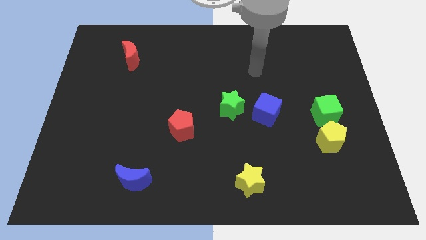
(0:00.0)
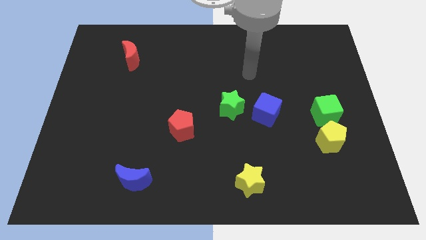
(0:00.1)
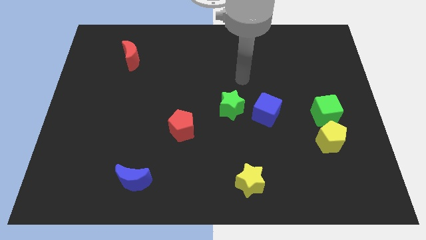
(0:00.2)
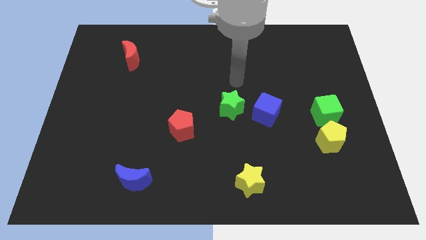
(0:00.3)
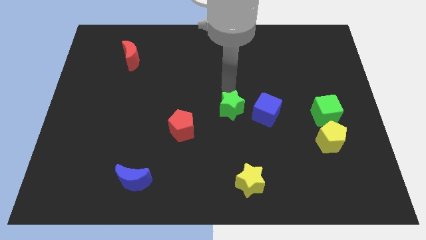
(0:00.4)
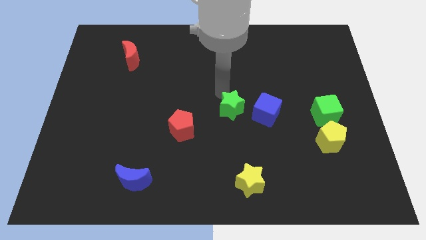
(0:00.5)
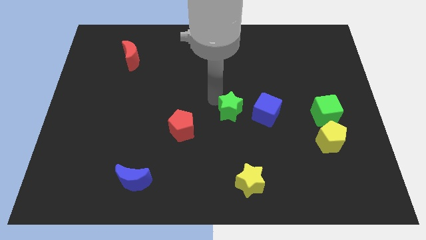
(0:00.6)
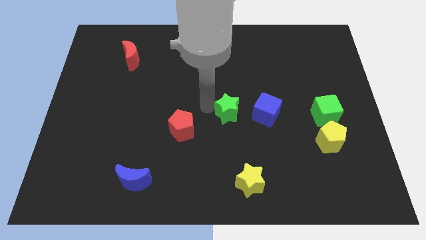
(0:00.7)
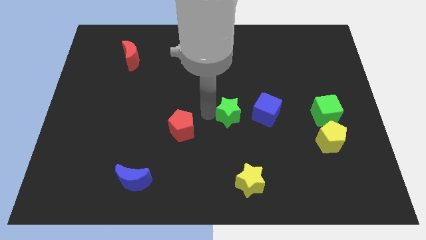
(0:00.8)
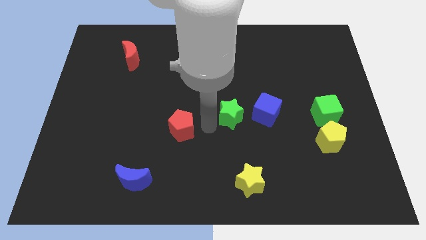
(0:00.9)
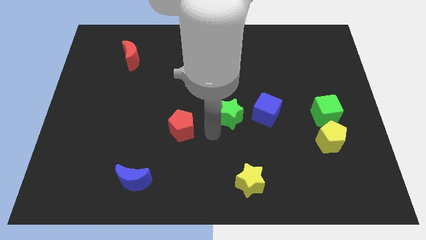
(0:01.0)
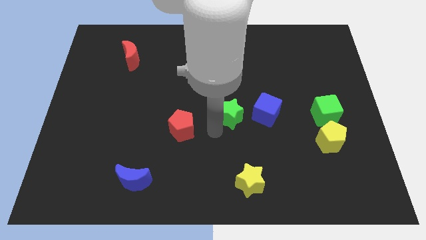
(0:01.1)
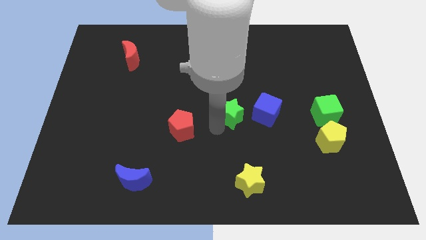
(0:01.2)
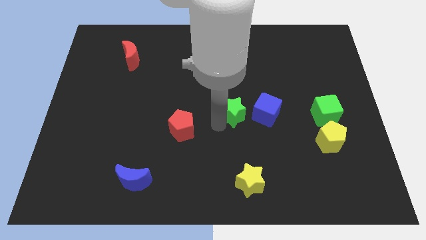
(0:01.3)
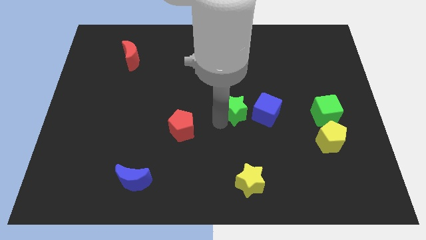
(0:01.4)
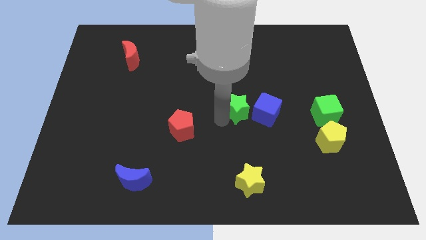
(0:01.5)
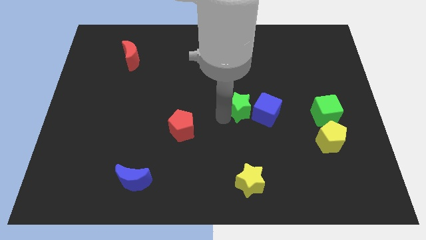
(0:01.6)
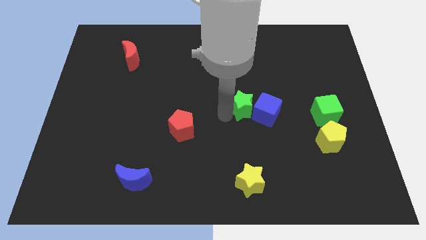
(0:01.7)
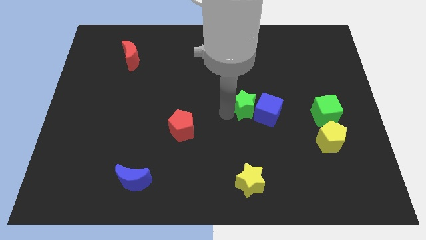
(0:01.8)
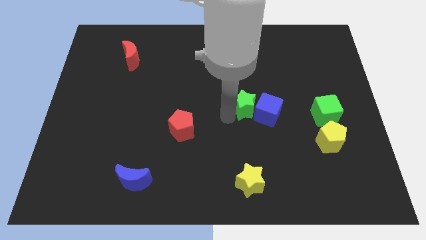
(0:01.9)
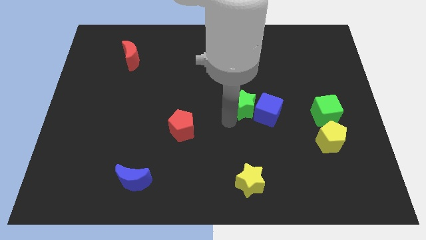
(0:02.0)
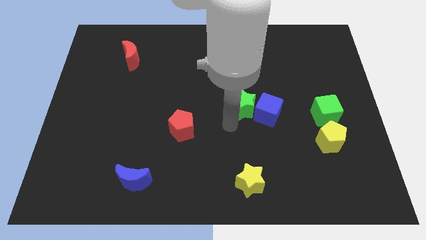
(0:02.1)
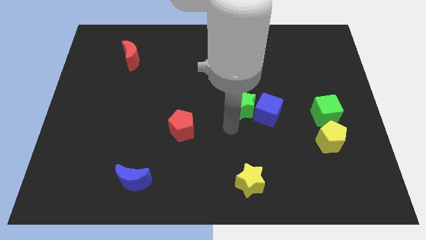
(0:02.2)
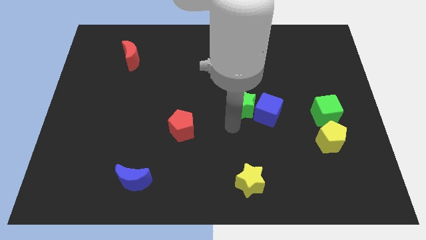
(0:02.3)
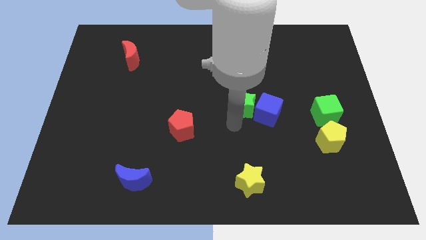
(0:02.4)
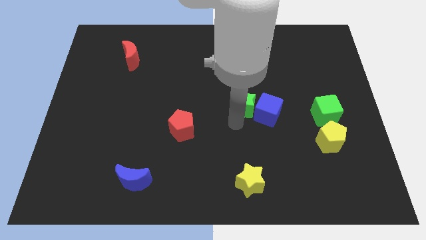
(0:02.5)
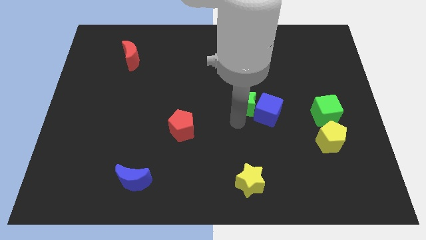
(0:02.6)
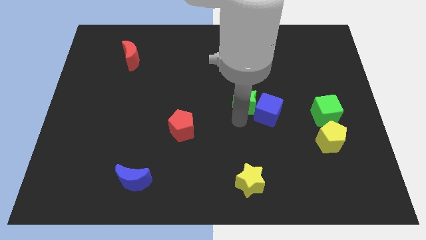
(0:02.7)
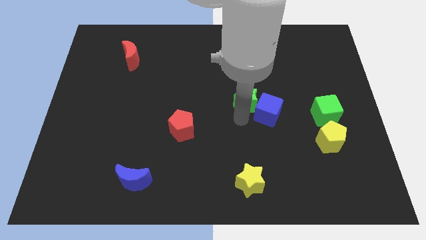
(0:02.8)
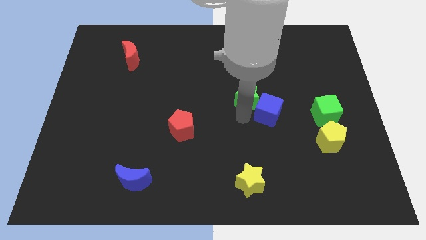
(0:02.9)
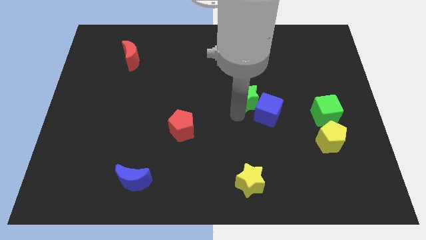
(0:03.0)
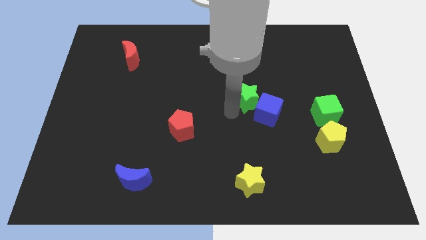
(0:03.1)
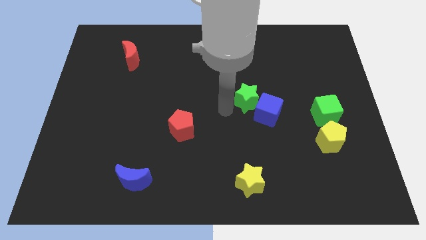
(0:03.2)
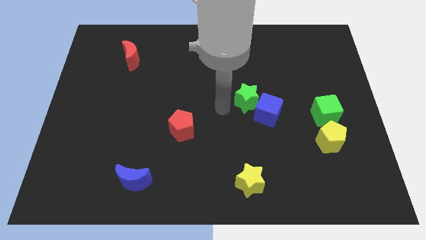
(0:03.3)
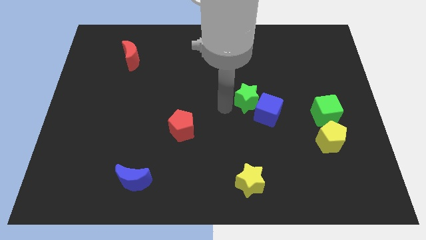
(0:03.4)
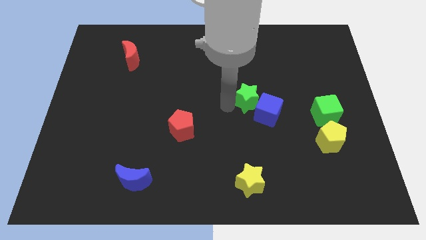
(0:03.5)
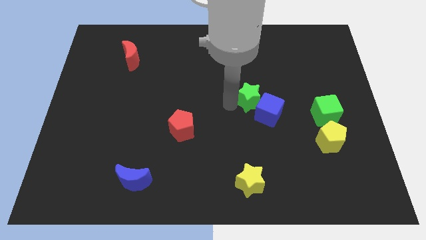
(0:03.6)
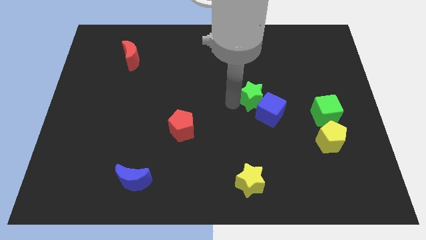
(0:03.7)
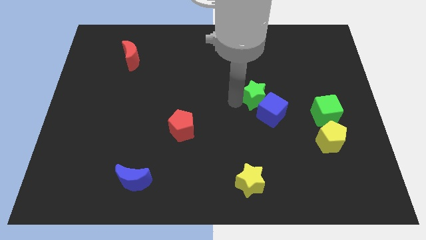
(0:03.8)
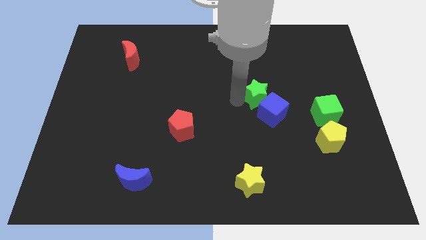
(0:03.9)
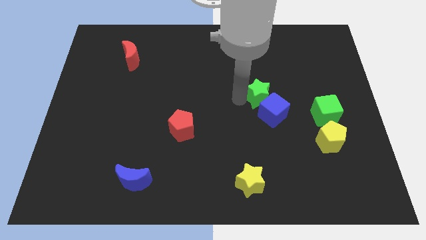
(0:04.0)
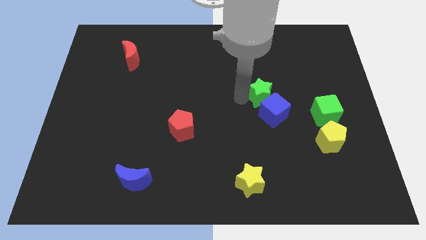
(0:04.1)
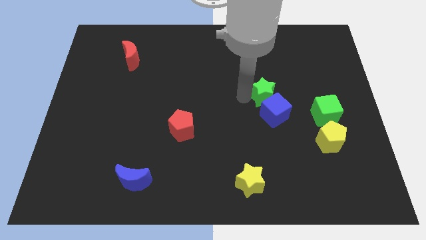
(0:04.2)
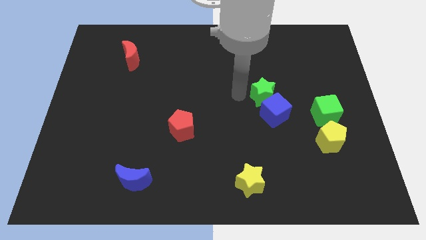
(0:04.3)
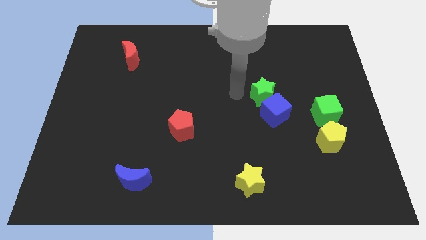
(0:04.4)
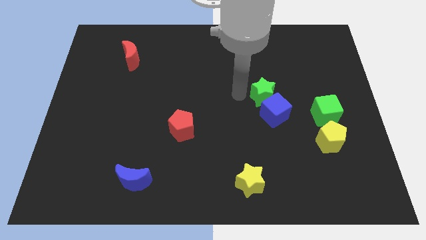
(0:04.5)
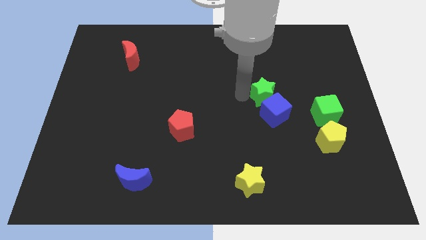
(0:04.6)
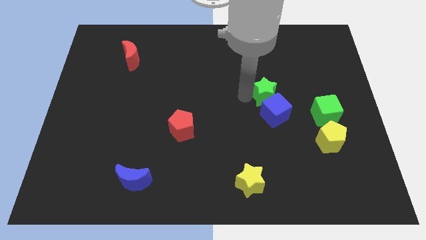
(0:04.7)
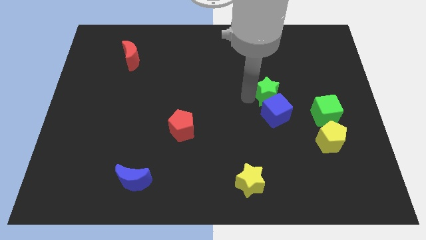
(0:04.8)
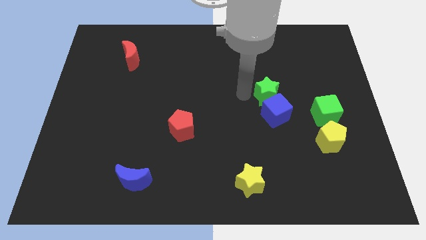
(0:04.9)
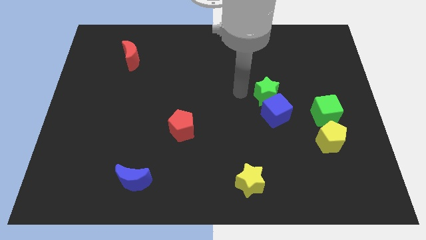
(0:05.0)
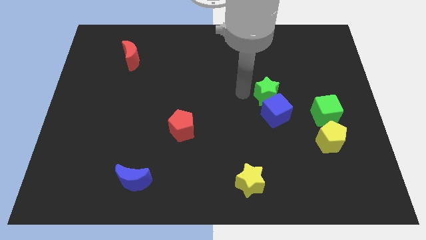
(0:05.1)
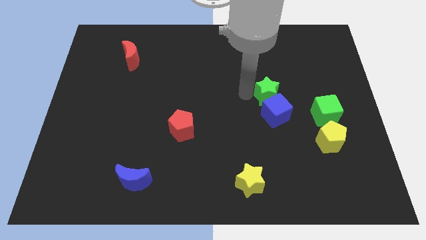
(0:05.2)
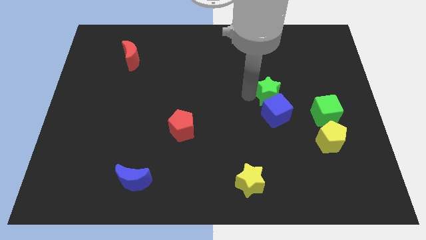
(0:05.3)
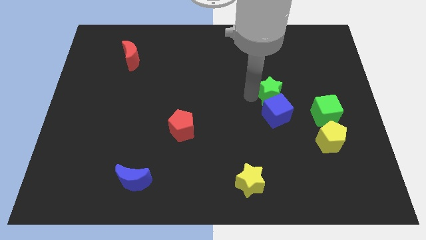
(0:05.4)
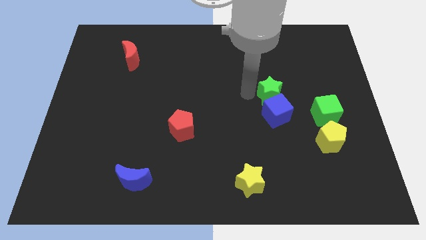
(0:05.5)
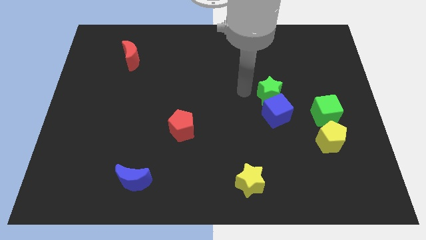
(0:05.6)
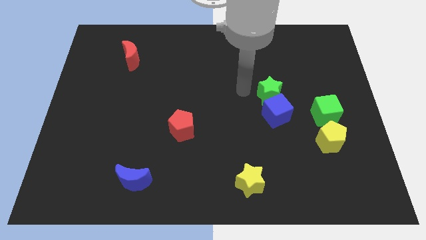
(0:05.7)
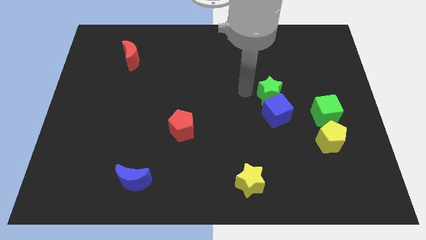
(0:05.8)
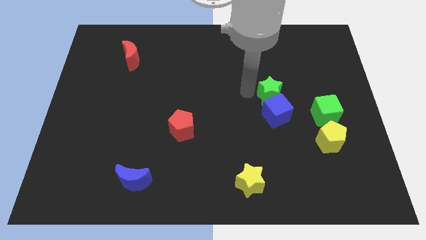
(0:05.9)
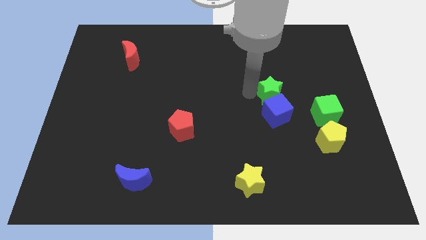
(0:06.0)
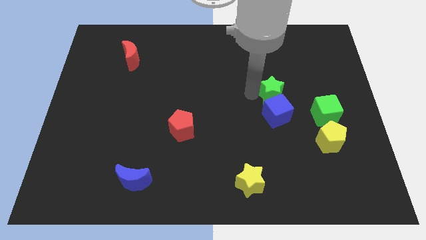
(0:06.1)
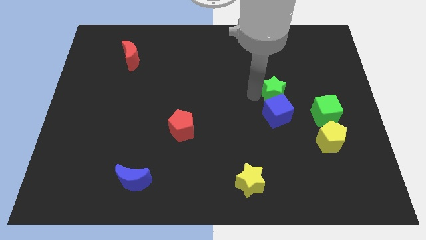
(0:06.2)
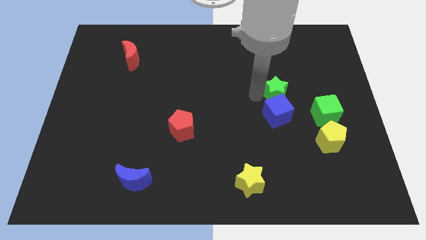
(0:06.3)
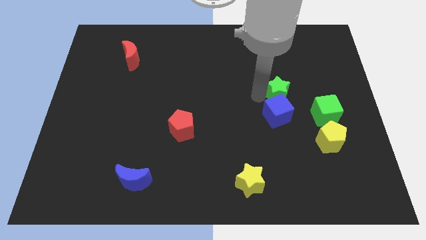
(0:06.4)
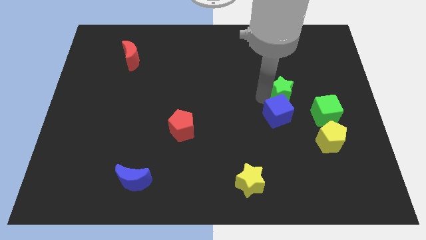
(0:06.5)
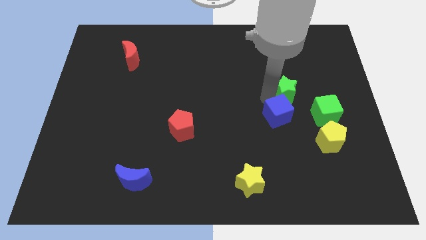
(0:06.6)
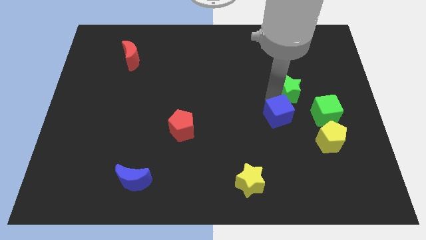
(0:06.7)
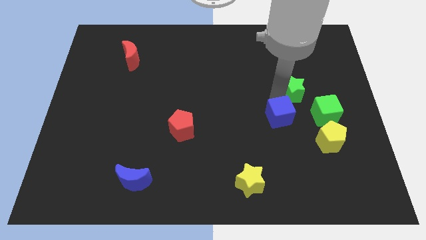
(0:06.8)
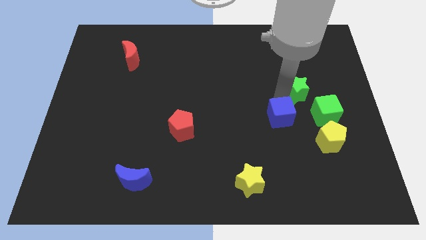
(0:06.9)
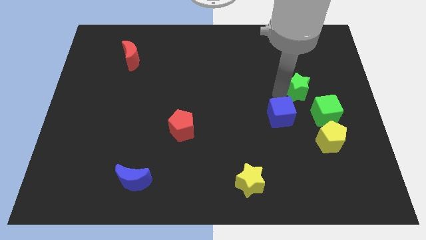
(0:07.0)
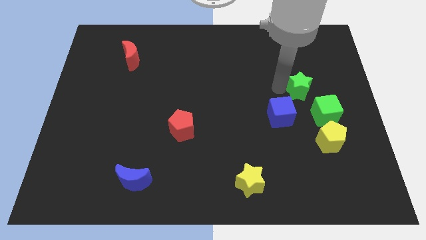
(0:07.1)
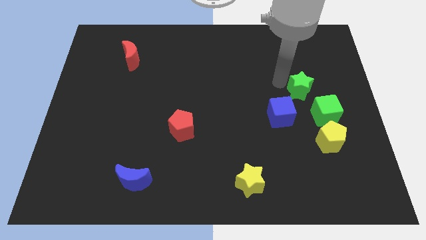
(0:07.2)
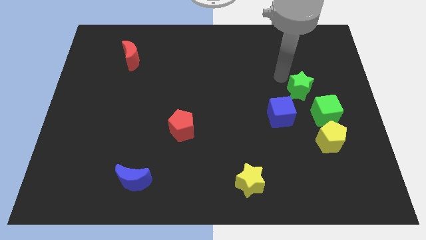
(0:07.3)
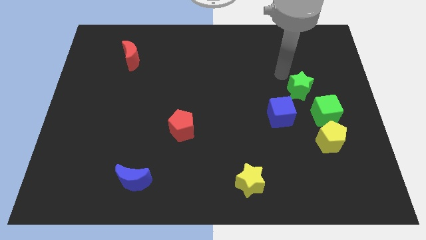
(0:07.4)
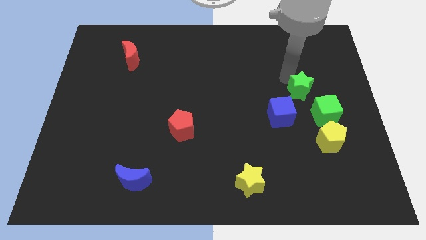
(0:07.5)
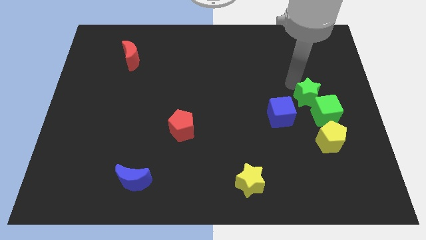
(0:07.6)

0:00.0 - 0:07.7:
slide the green star close to the green cube

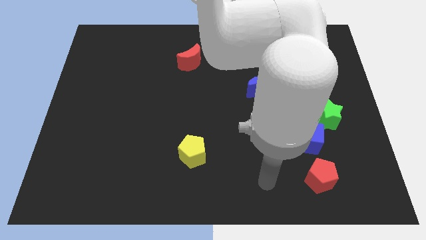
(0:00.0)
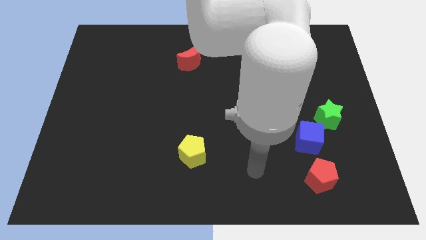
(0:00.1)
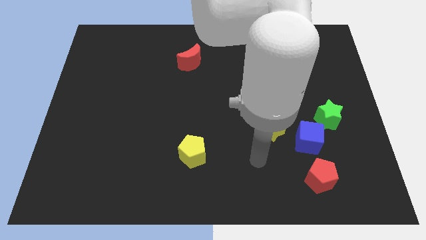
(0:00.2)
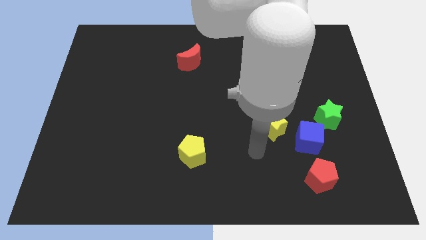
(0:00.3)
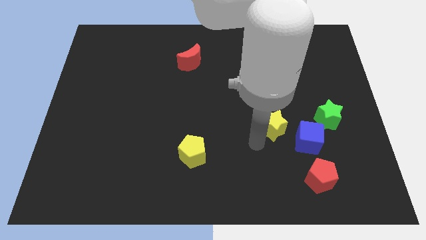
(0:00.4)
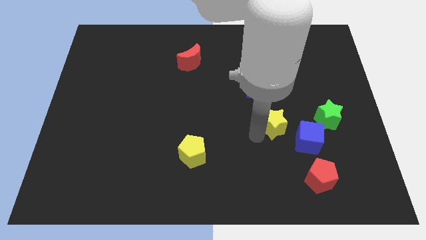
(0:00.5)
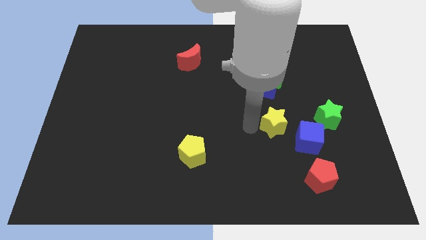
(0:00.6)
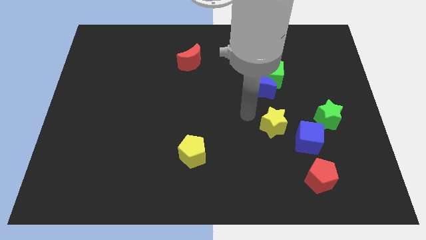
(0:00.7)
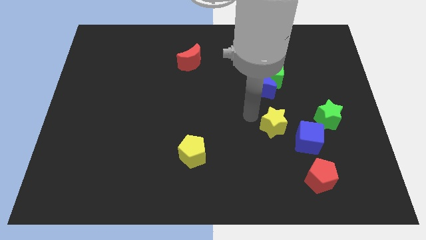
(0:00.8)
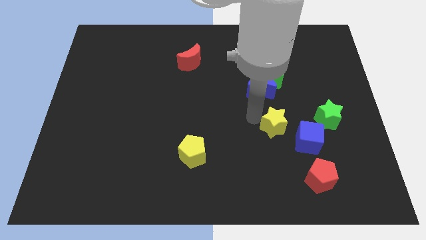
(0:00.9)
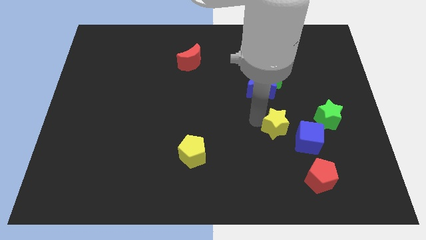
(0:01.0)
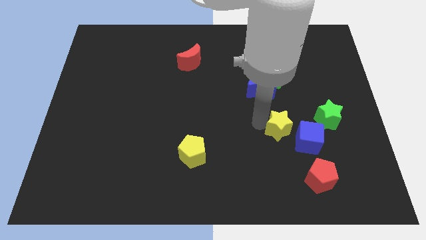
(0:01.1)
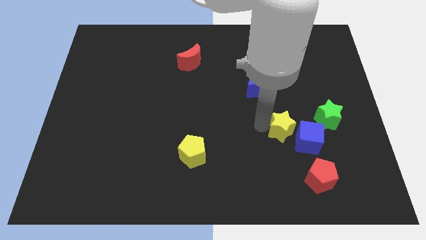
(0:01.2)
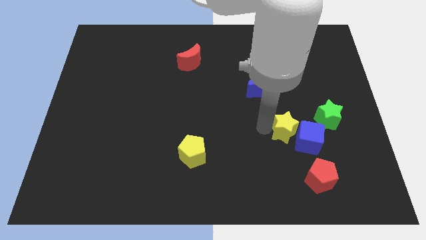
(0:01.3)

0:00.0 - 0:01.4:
move the yellow star towards the blue cube
